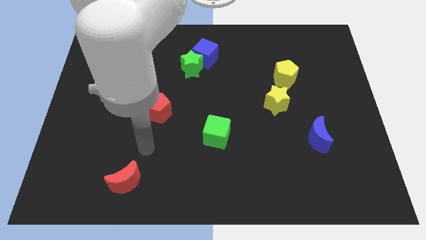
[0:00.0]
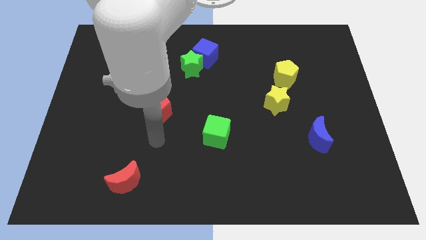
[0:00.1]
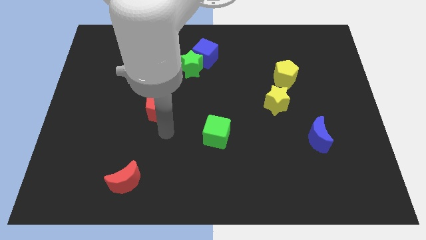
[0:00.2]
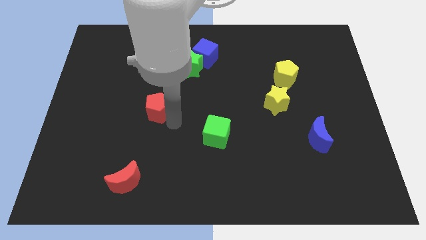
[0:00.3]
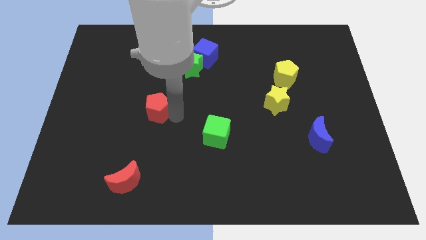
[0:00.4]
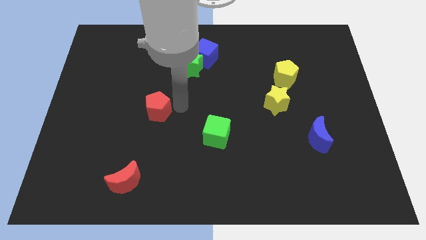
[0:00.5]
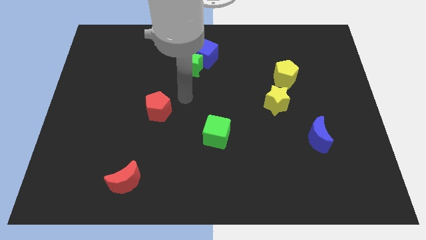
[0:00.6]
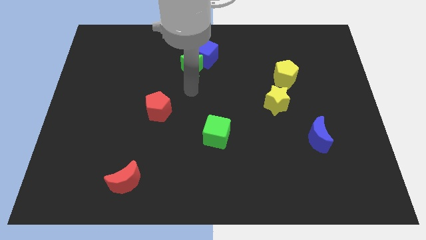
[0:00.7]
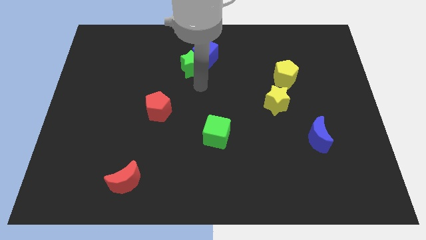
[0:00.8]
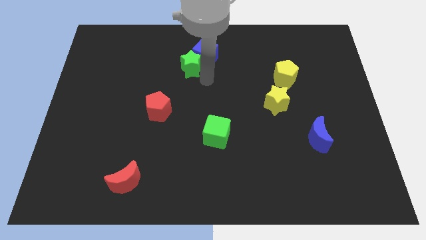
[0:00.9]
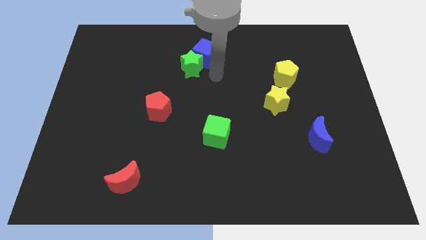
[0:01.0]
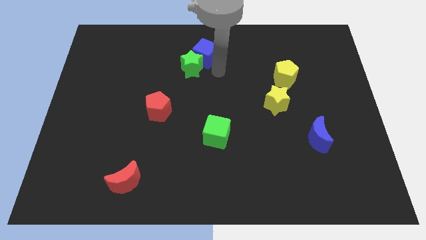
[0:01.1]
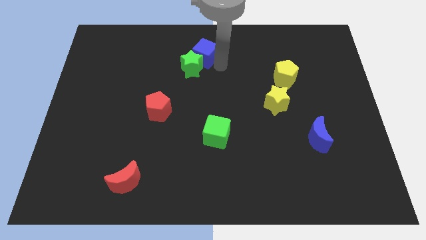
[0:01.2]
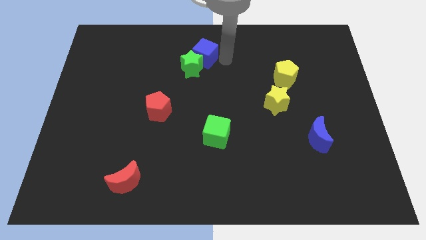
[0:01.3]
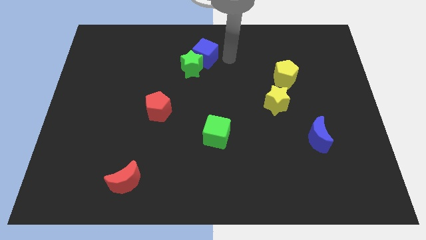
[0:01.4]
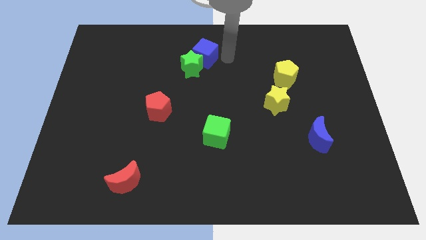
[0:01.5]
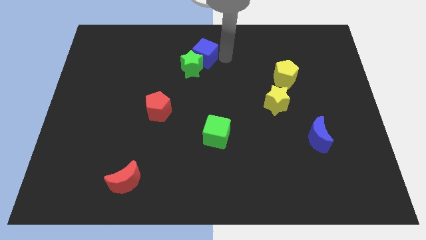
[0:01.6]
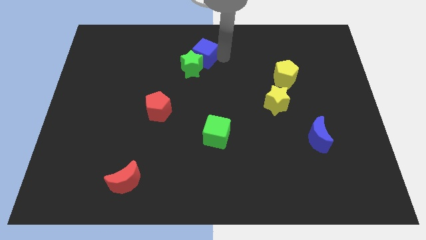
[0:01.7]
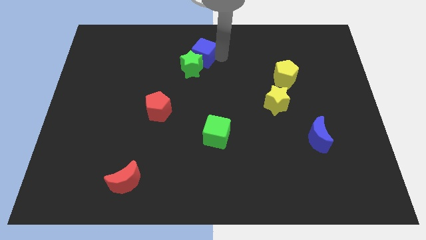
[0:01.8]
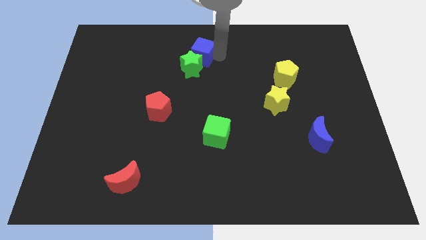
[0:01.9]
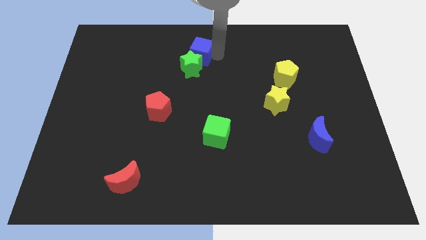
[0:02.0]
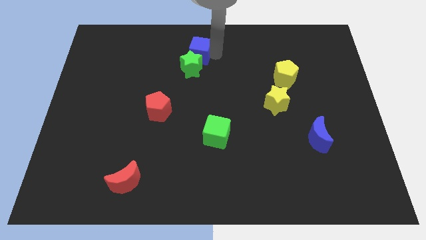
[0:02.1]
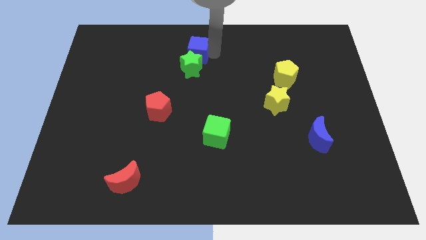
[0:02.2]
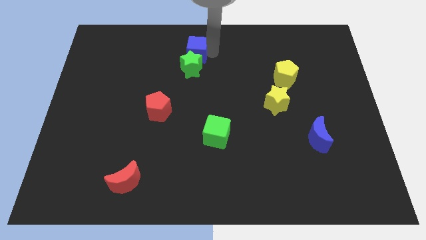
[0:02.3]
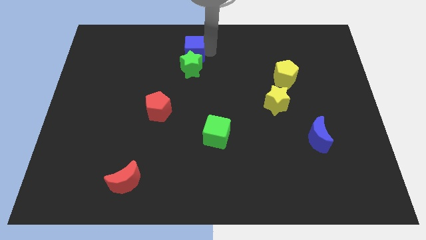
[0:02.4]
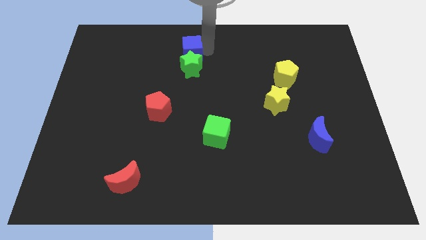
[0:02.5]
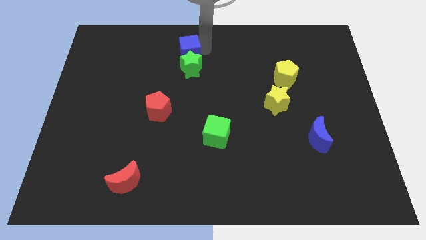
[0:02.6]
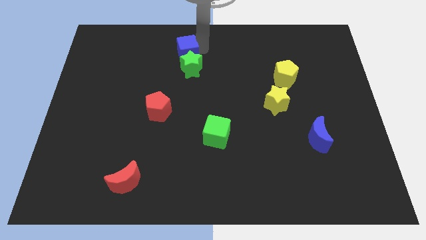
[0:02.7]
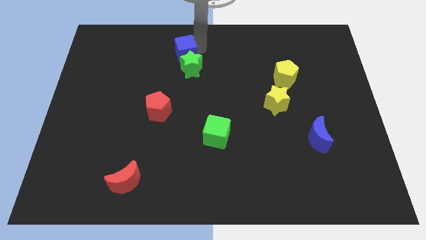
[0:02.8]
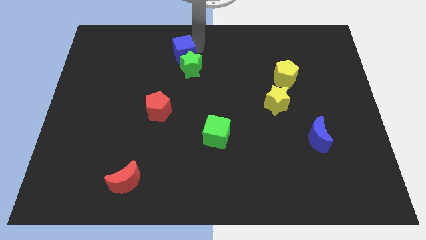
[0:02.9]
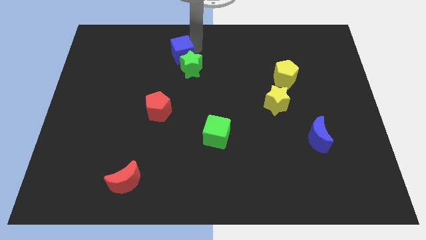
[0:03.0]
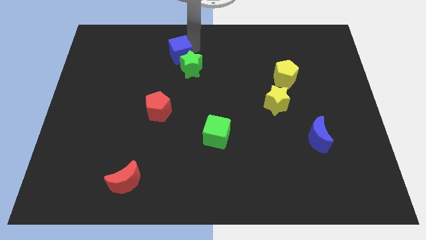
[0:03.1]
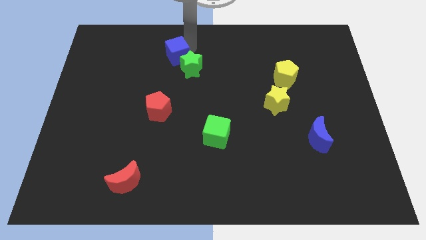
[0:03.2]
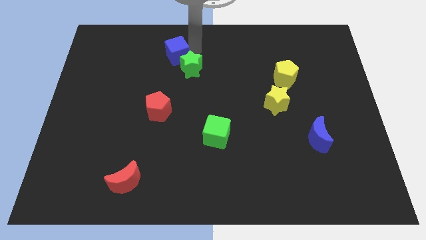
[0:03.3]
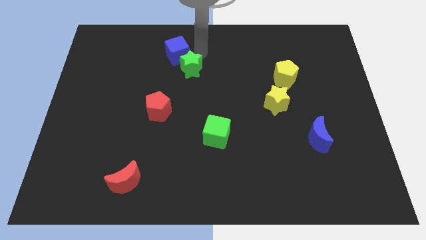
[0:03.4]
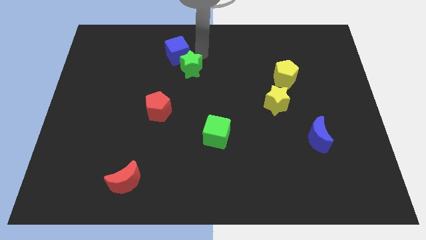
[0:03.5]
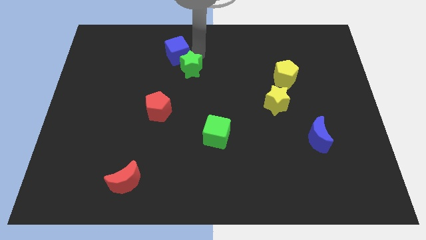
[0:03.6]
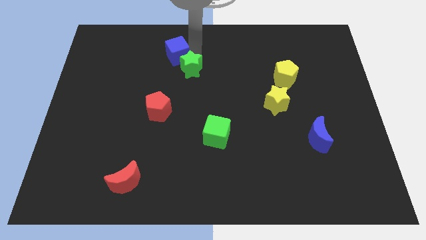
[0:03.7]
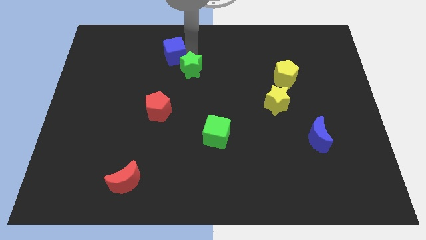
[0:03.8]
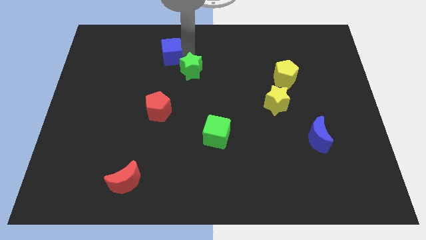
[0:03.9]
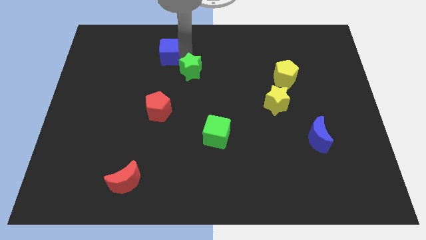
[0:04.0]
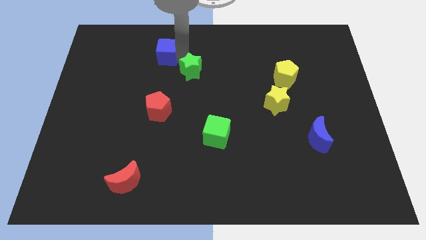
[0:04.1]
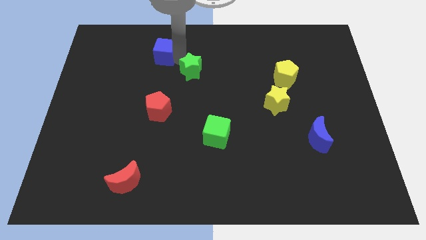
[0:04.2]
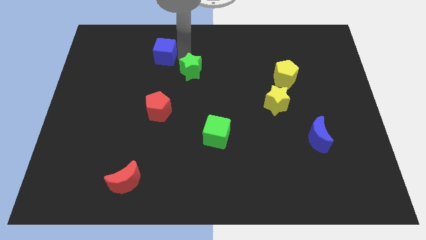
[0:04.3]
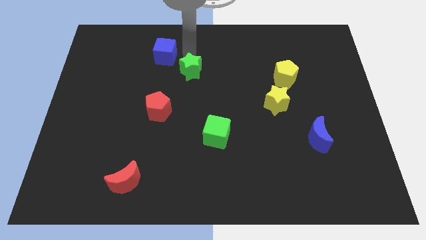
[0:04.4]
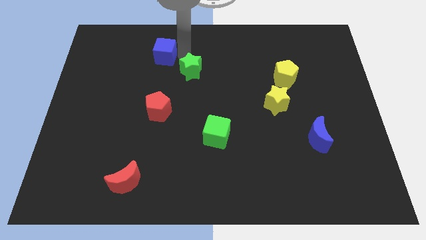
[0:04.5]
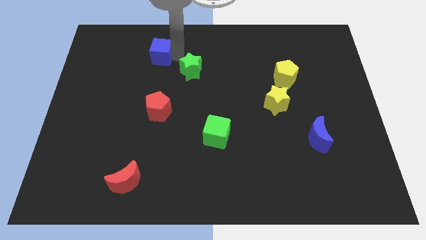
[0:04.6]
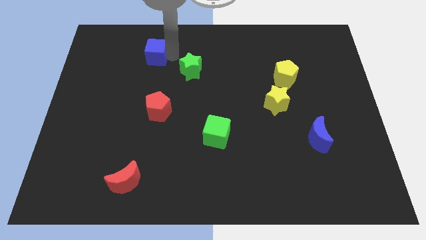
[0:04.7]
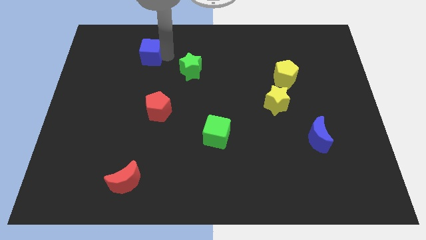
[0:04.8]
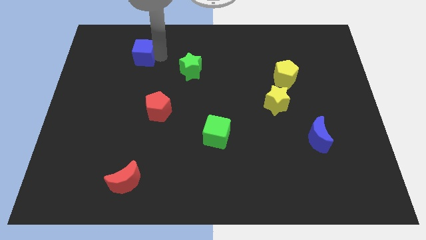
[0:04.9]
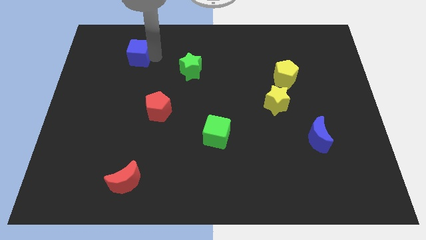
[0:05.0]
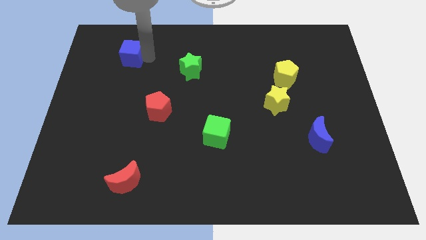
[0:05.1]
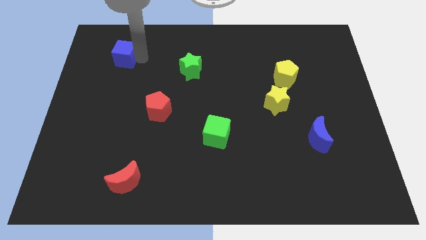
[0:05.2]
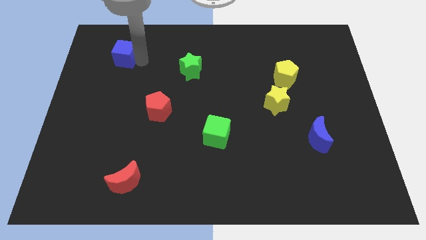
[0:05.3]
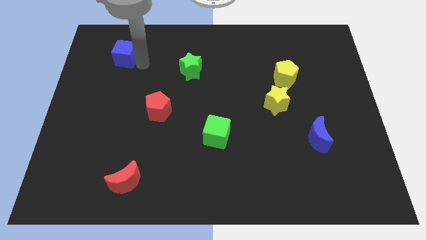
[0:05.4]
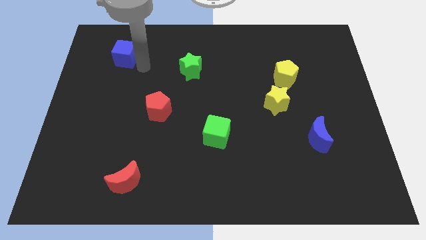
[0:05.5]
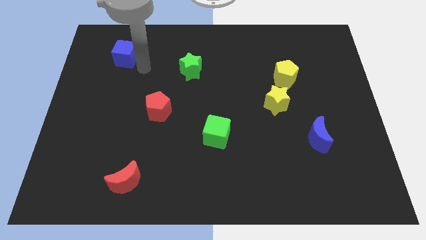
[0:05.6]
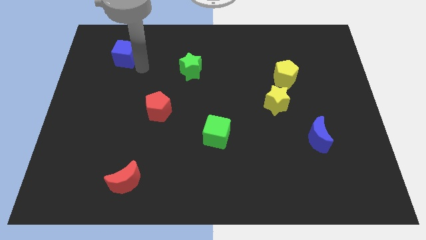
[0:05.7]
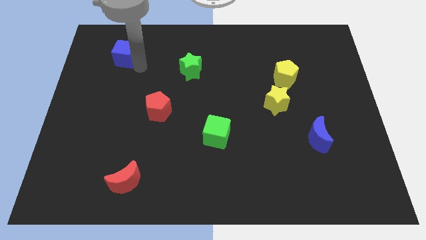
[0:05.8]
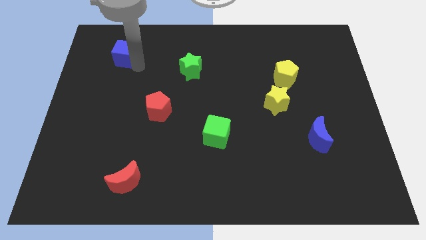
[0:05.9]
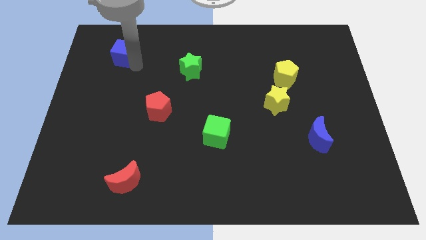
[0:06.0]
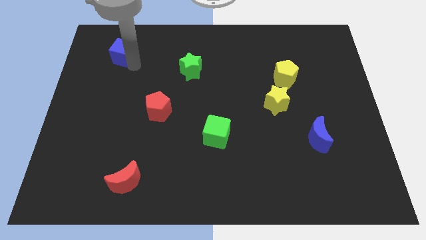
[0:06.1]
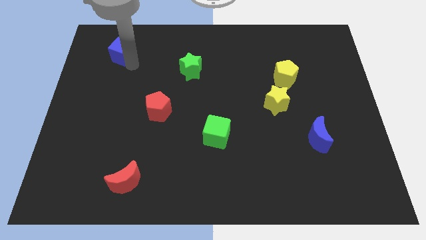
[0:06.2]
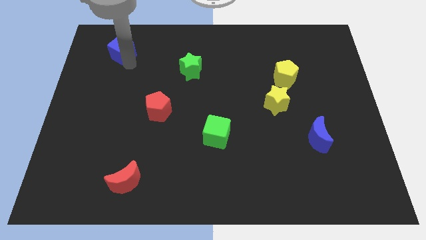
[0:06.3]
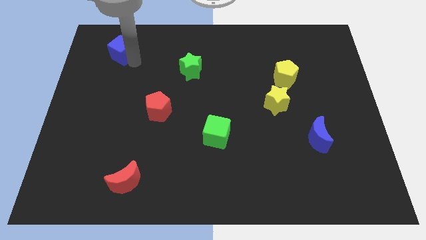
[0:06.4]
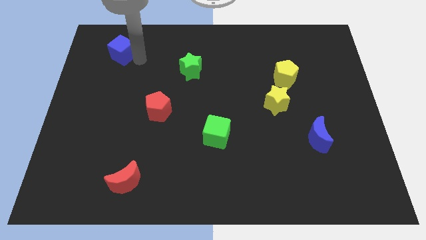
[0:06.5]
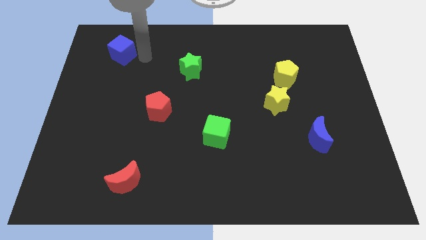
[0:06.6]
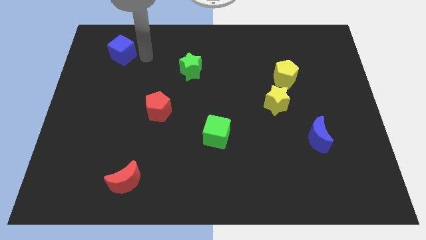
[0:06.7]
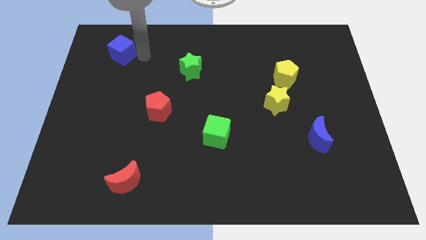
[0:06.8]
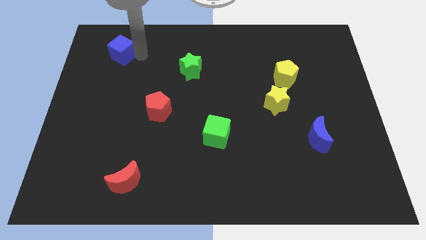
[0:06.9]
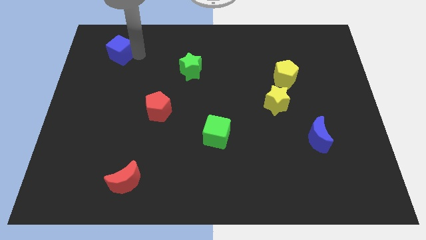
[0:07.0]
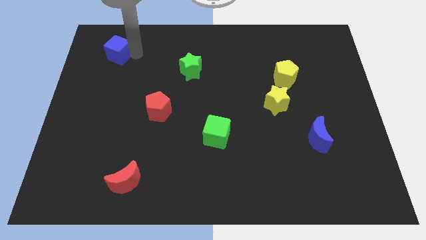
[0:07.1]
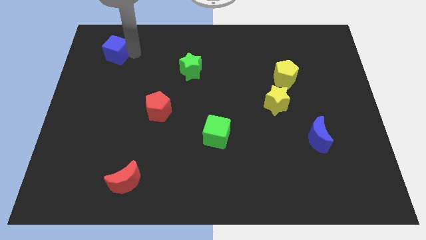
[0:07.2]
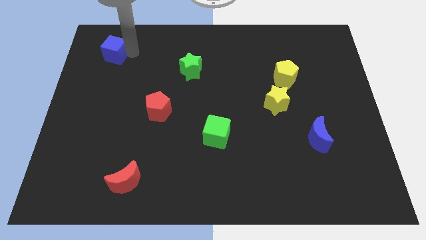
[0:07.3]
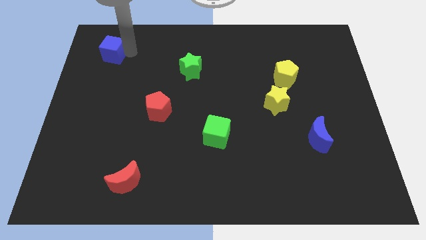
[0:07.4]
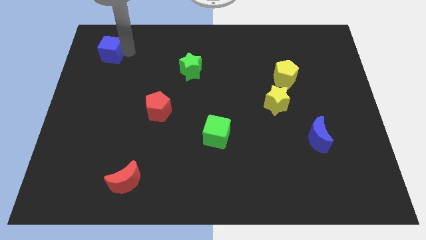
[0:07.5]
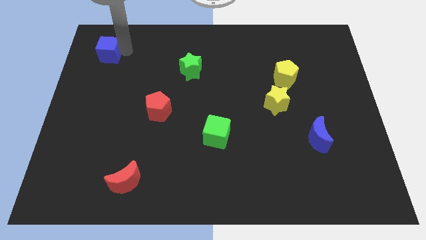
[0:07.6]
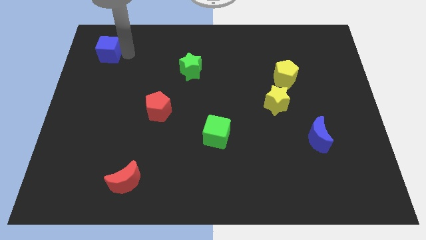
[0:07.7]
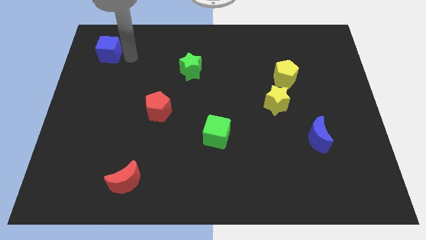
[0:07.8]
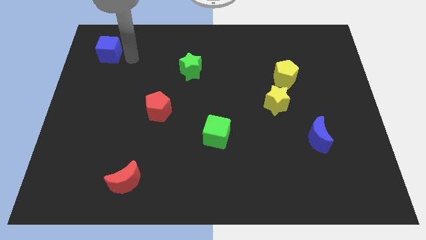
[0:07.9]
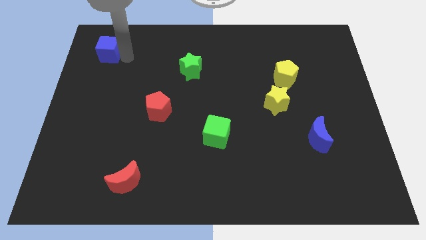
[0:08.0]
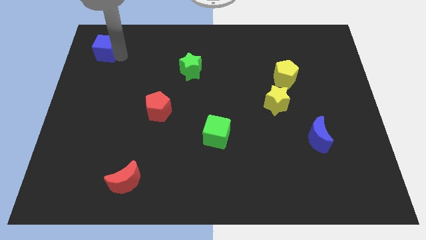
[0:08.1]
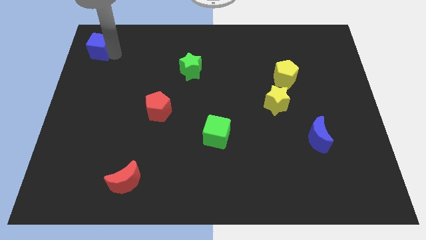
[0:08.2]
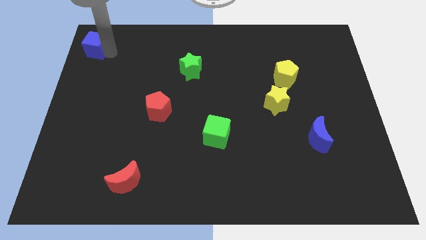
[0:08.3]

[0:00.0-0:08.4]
slide the blue cube to the top left corner
